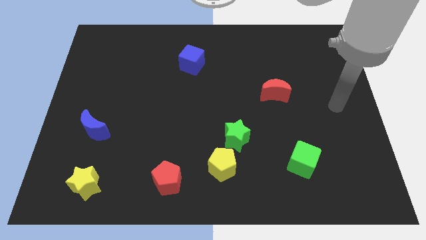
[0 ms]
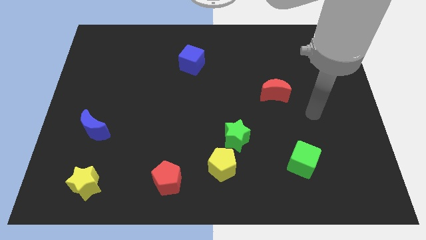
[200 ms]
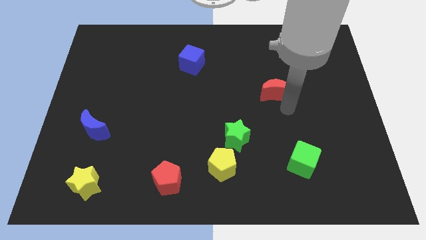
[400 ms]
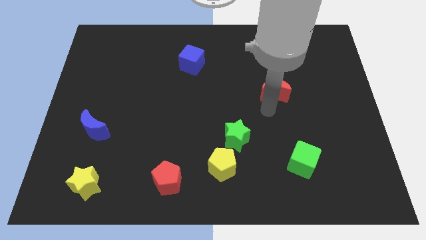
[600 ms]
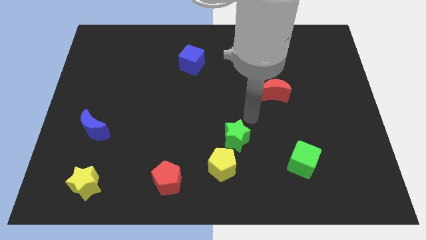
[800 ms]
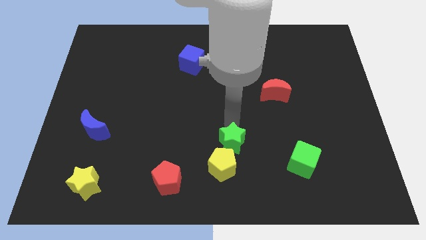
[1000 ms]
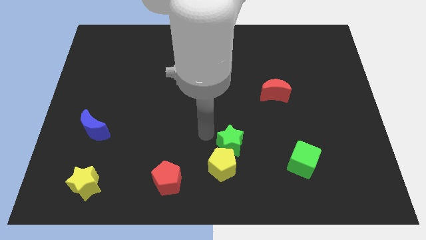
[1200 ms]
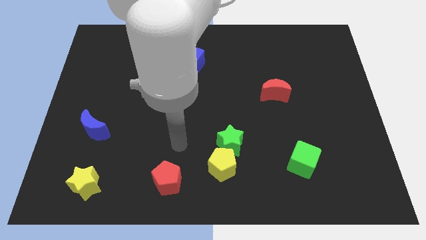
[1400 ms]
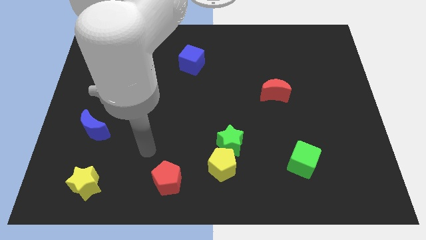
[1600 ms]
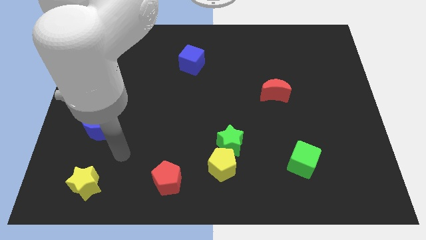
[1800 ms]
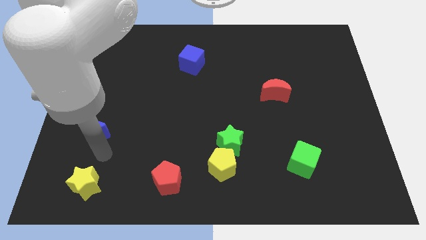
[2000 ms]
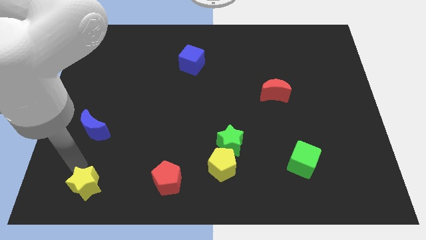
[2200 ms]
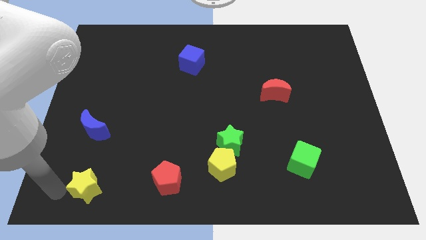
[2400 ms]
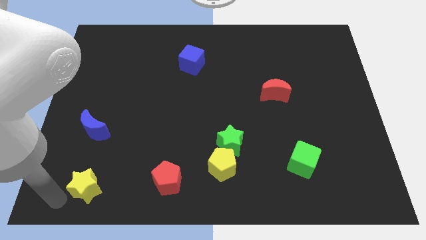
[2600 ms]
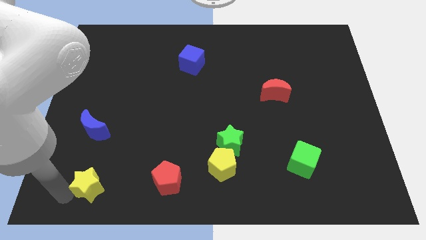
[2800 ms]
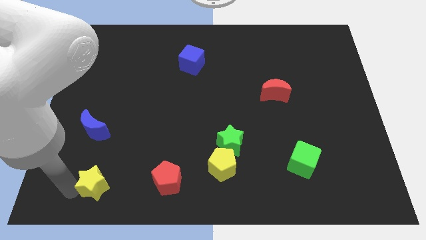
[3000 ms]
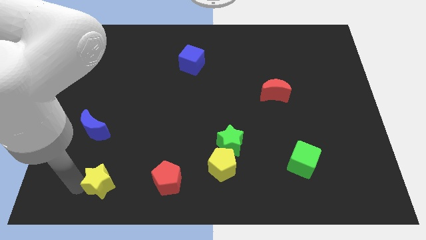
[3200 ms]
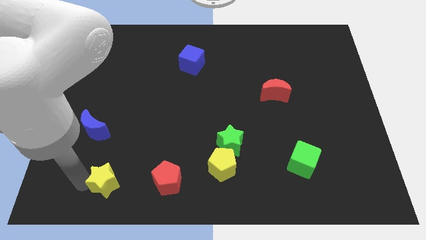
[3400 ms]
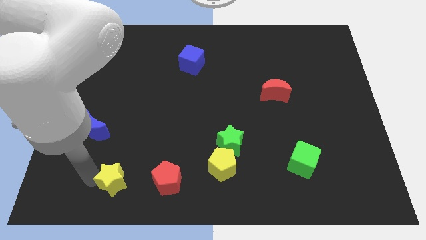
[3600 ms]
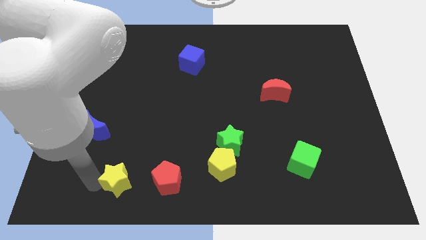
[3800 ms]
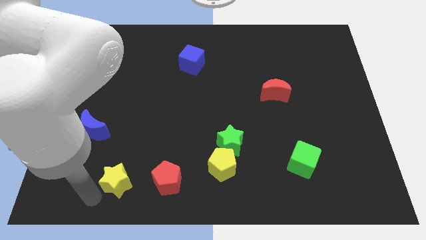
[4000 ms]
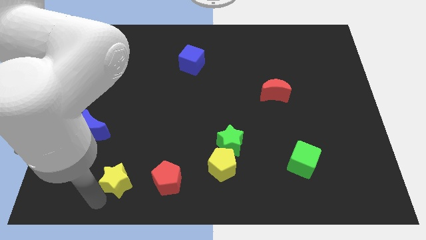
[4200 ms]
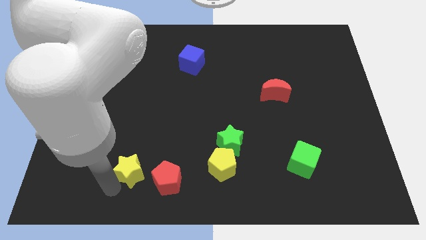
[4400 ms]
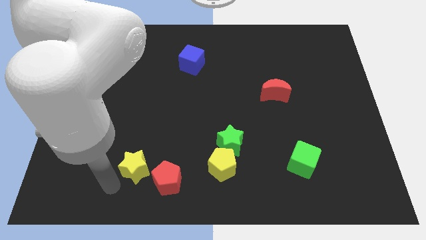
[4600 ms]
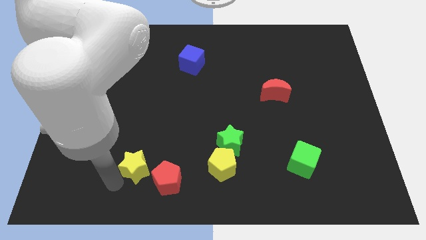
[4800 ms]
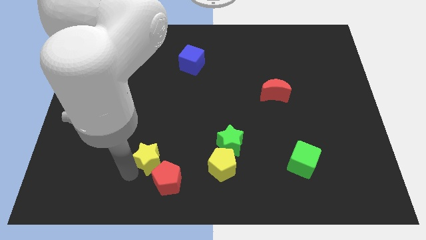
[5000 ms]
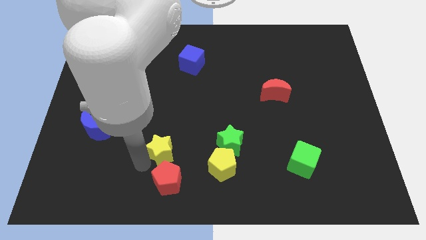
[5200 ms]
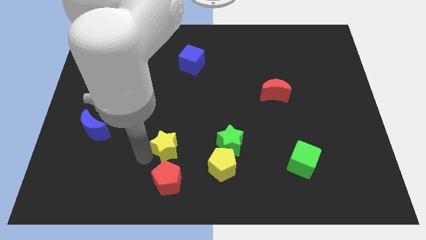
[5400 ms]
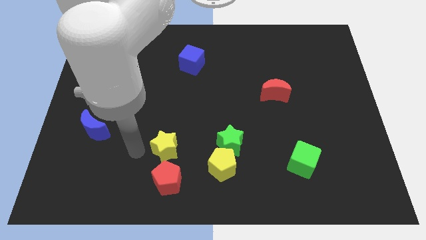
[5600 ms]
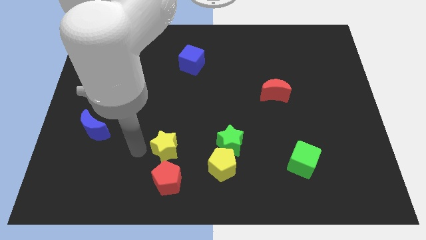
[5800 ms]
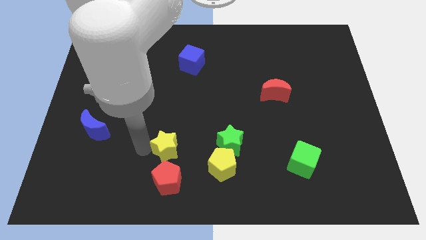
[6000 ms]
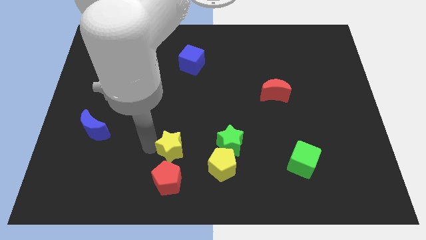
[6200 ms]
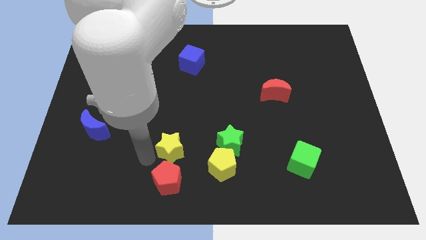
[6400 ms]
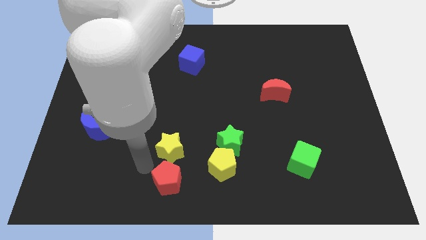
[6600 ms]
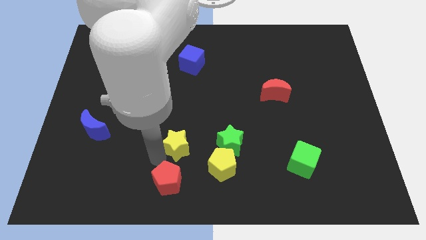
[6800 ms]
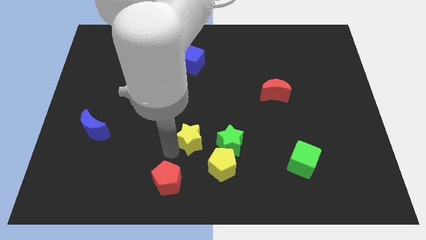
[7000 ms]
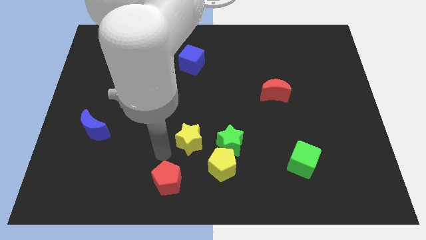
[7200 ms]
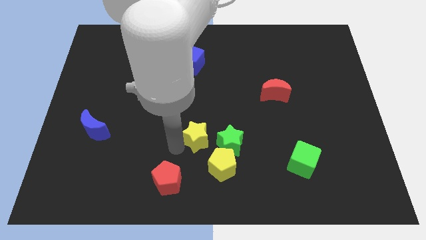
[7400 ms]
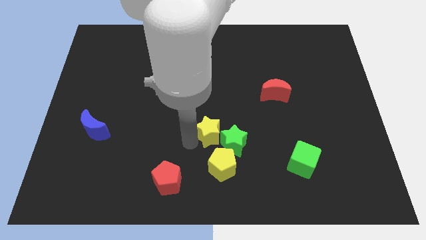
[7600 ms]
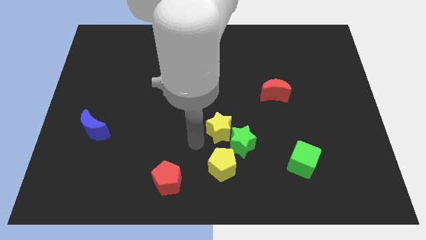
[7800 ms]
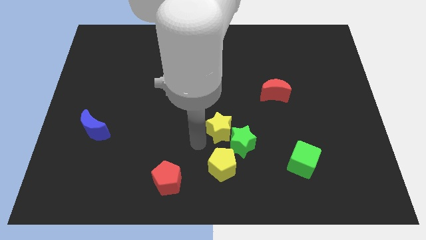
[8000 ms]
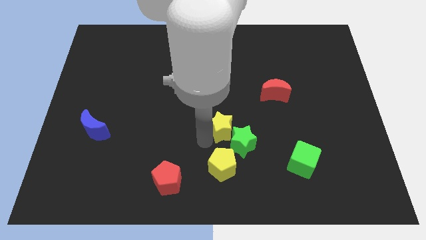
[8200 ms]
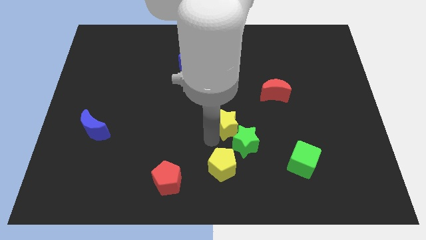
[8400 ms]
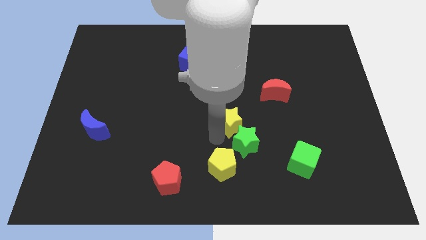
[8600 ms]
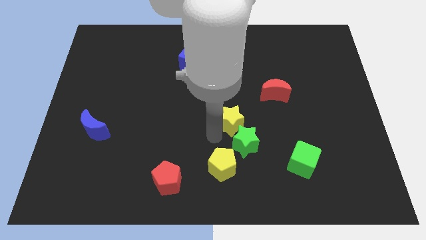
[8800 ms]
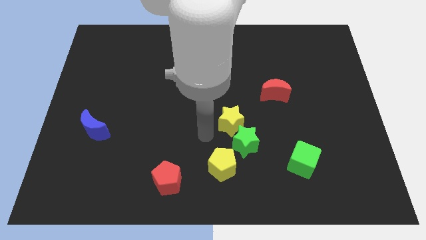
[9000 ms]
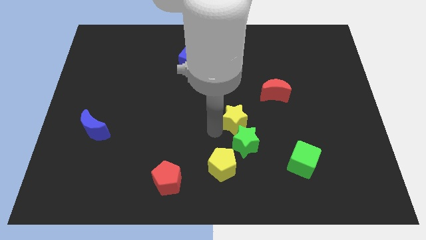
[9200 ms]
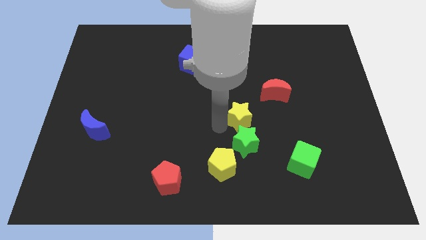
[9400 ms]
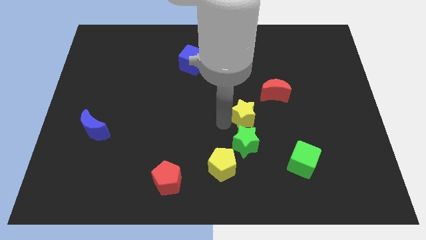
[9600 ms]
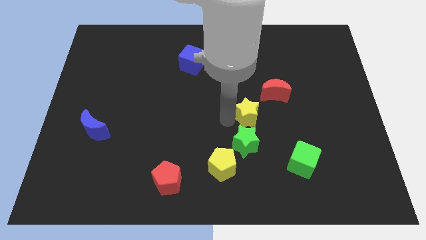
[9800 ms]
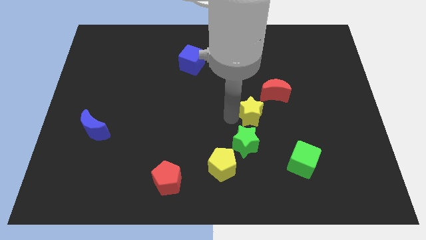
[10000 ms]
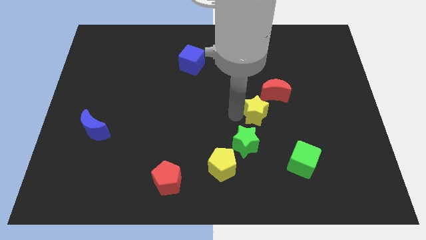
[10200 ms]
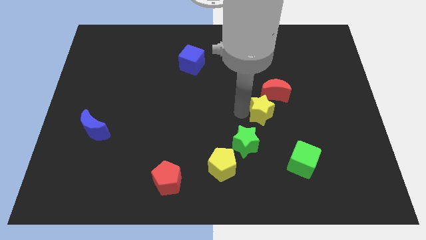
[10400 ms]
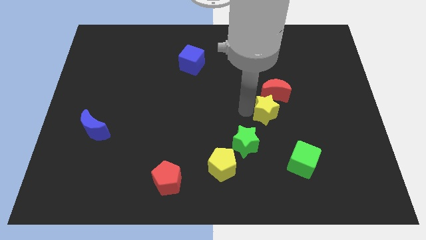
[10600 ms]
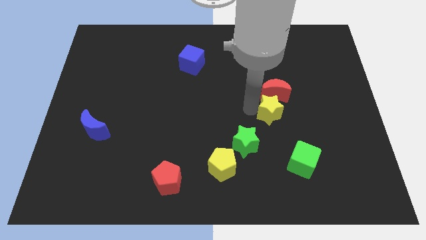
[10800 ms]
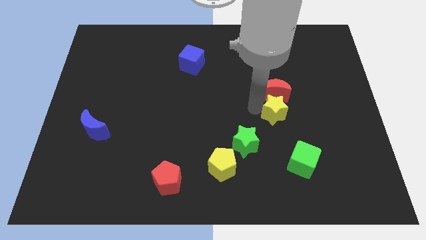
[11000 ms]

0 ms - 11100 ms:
move the yellow star to the top side of the green cube

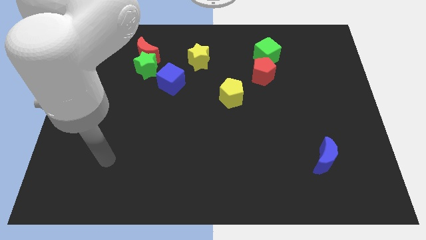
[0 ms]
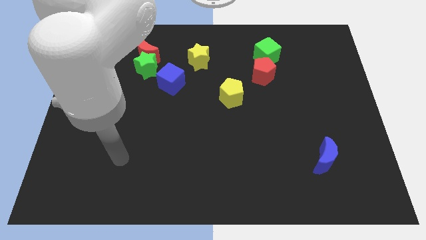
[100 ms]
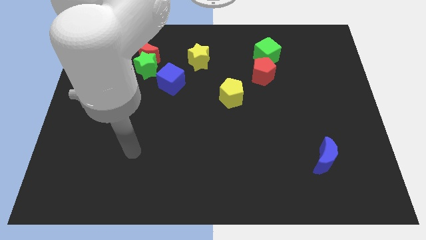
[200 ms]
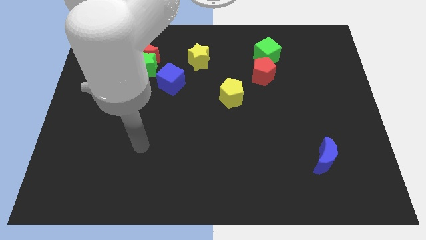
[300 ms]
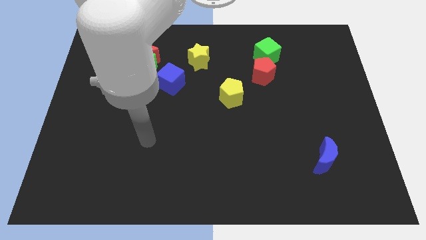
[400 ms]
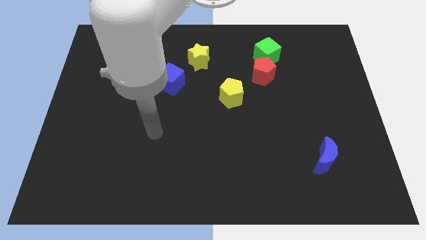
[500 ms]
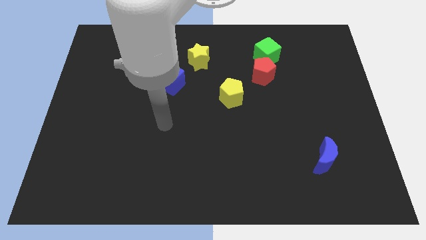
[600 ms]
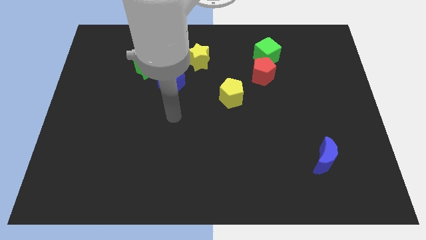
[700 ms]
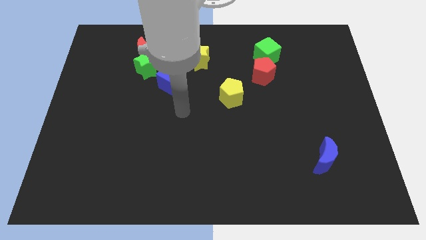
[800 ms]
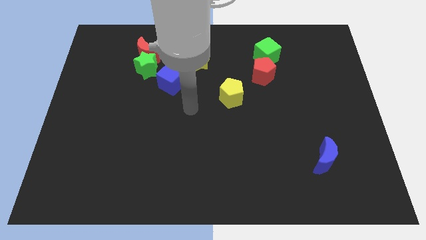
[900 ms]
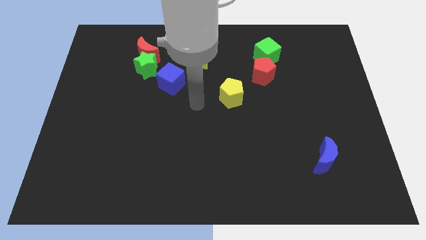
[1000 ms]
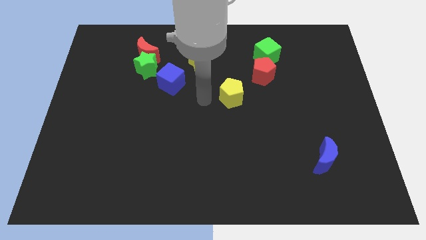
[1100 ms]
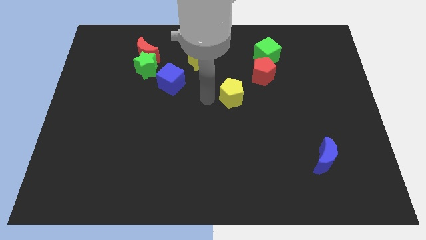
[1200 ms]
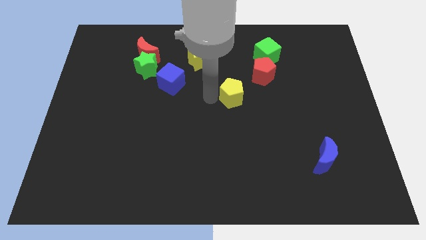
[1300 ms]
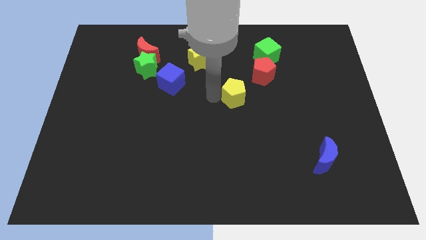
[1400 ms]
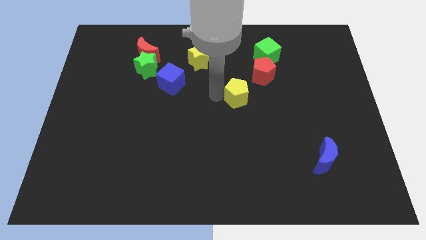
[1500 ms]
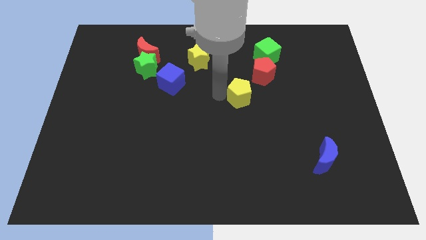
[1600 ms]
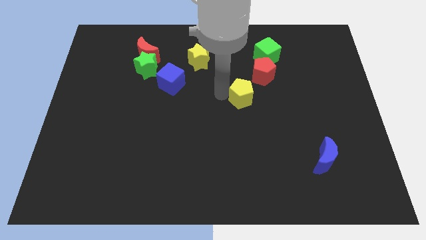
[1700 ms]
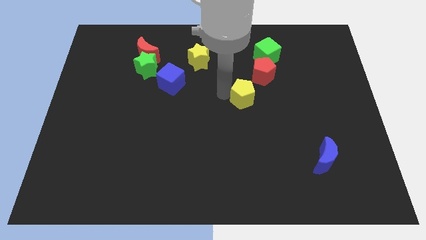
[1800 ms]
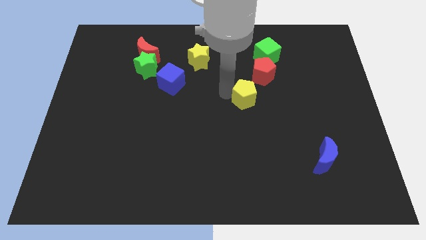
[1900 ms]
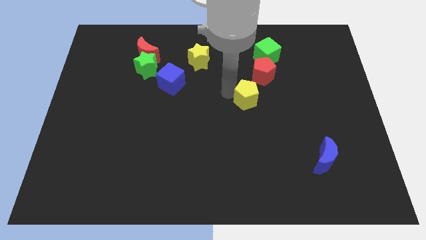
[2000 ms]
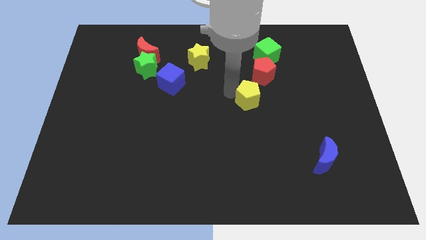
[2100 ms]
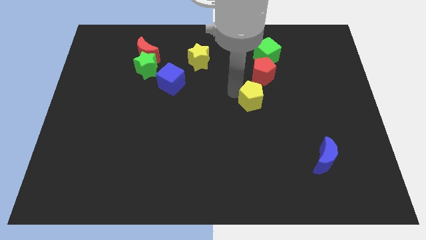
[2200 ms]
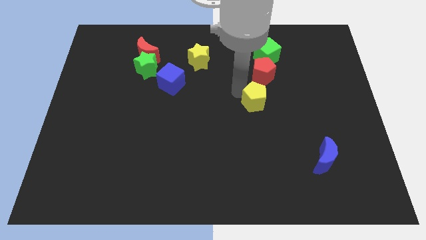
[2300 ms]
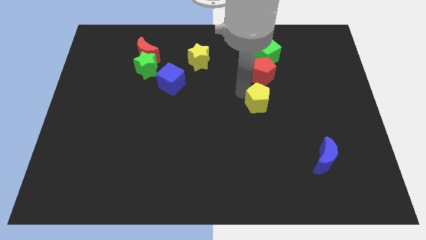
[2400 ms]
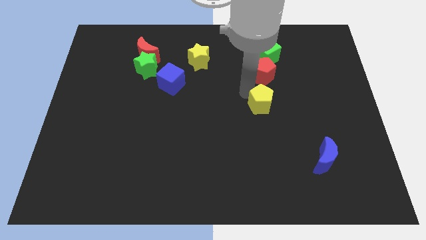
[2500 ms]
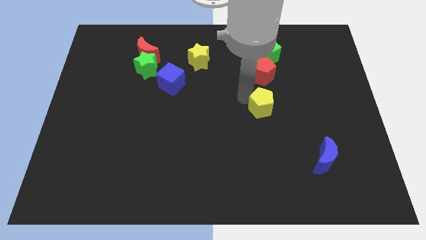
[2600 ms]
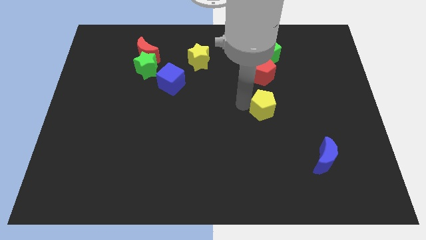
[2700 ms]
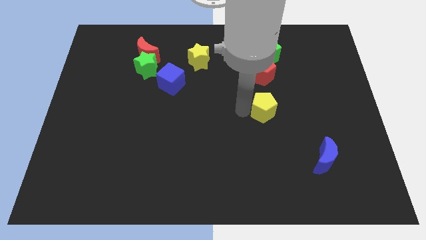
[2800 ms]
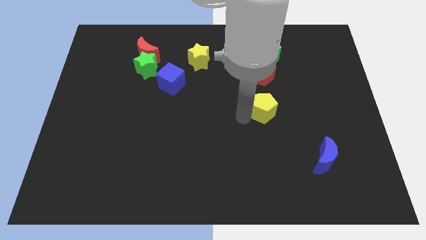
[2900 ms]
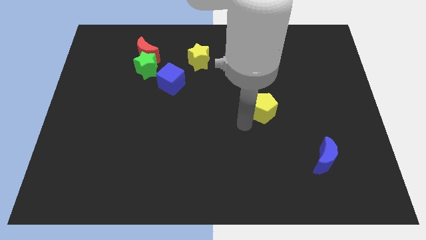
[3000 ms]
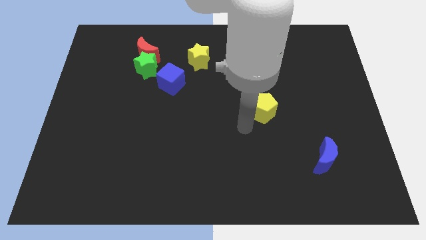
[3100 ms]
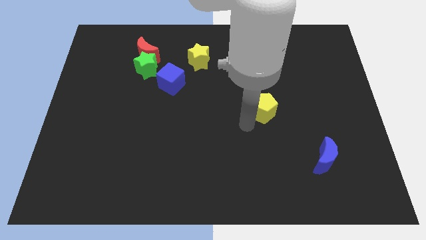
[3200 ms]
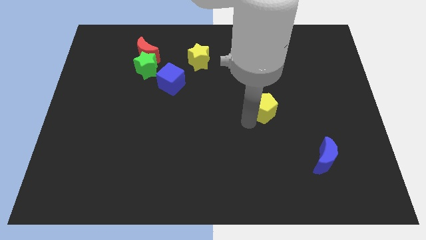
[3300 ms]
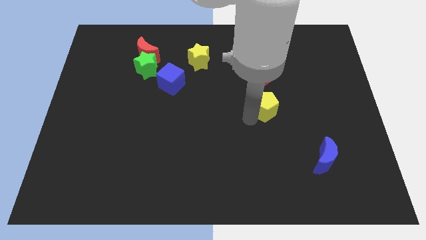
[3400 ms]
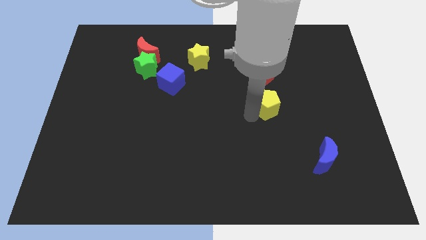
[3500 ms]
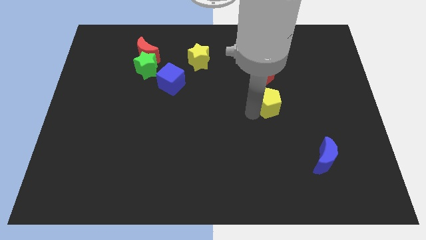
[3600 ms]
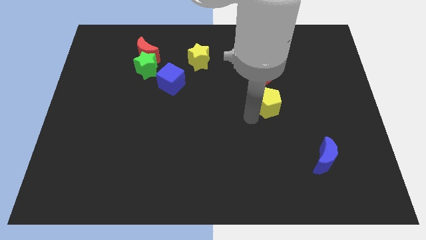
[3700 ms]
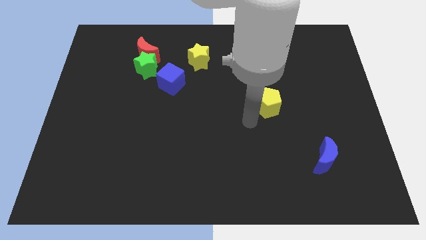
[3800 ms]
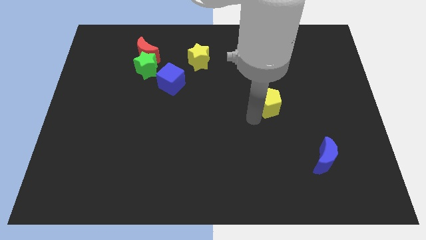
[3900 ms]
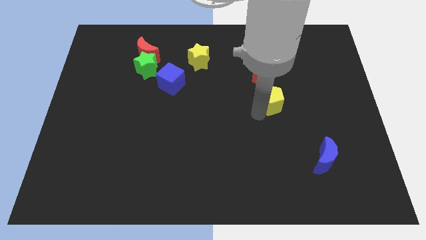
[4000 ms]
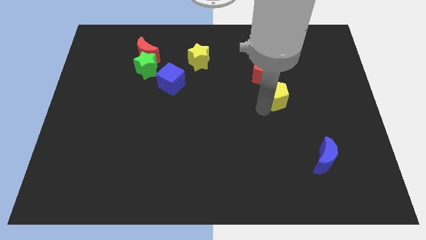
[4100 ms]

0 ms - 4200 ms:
push the yellow pentagon diagonally down and to the right of the red pentagon
